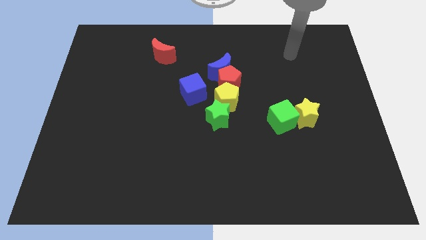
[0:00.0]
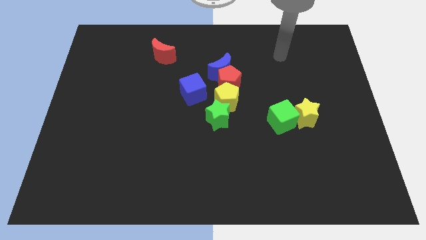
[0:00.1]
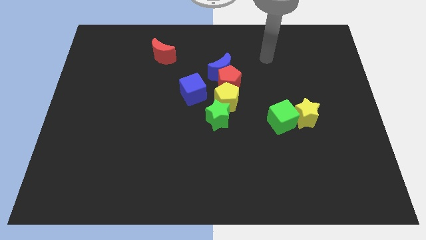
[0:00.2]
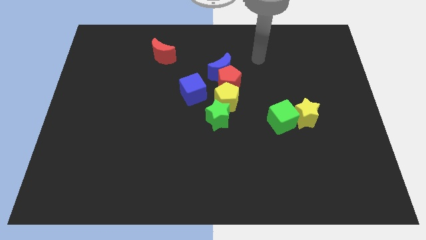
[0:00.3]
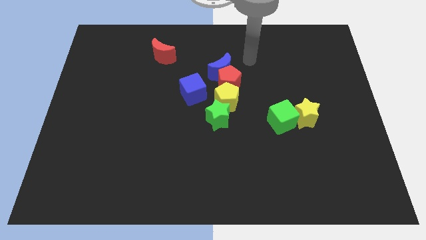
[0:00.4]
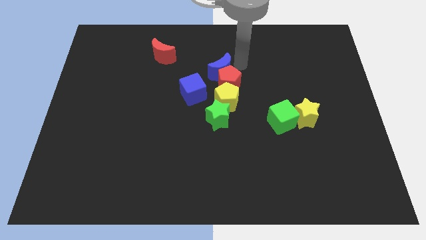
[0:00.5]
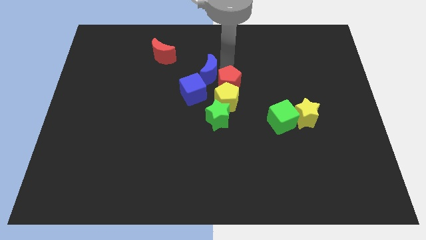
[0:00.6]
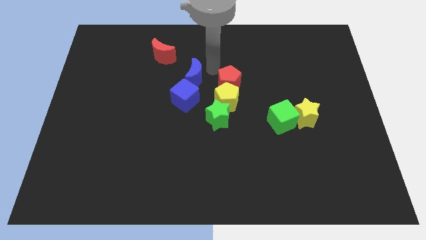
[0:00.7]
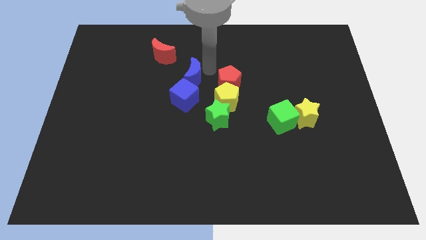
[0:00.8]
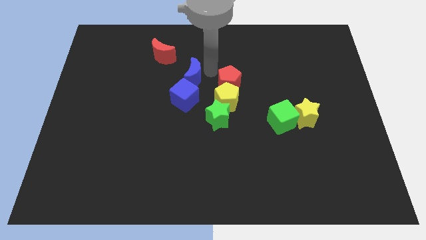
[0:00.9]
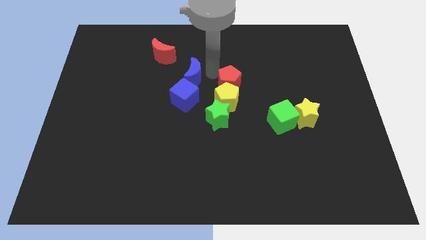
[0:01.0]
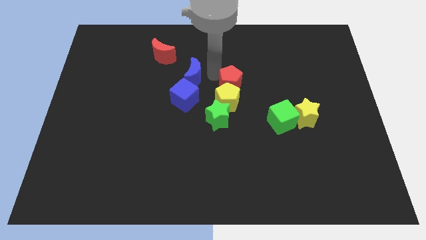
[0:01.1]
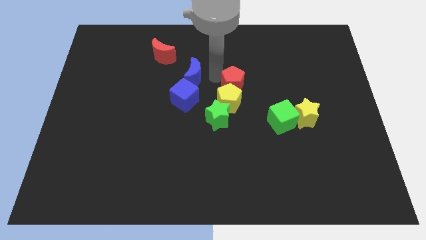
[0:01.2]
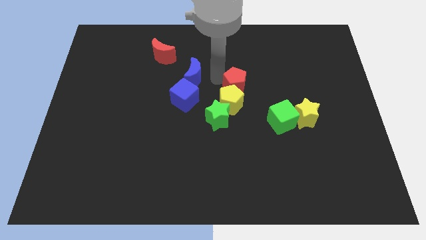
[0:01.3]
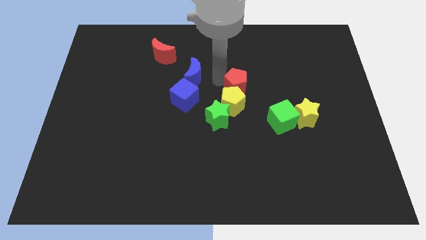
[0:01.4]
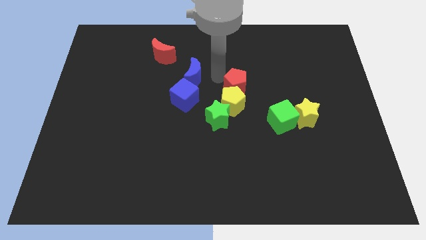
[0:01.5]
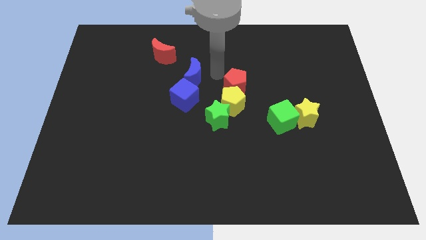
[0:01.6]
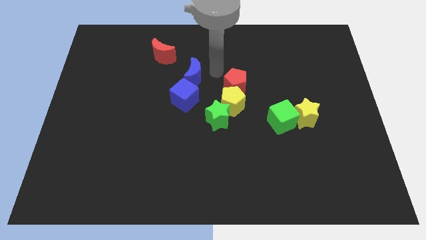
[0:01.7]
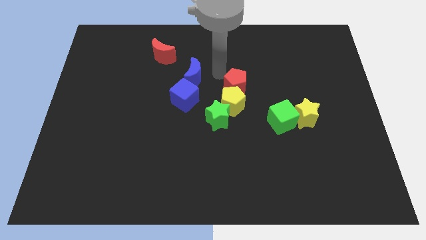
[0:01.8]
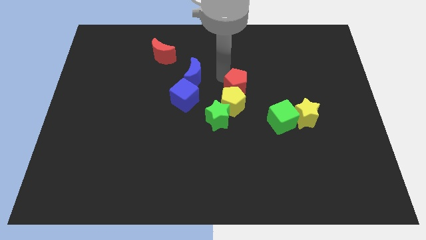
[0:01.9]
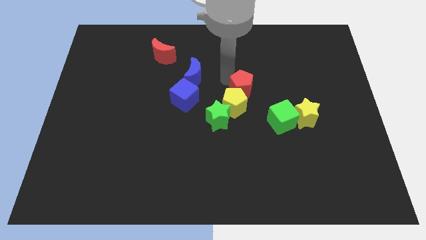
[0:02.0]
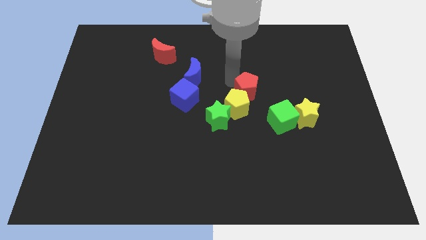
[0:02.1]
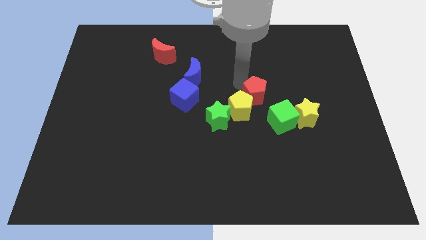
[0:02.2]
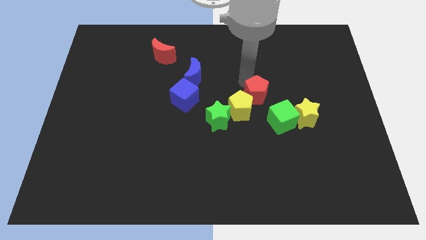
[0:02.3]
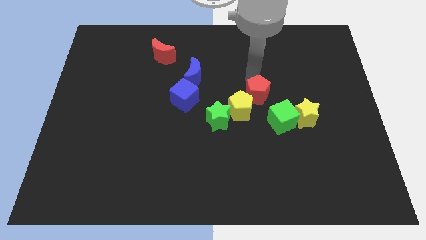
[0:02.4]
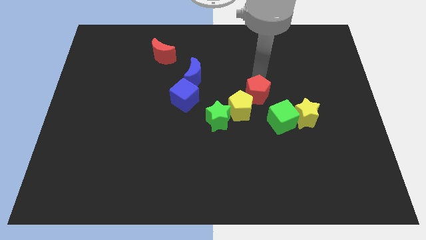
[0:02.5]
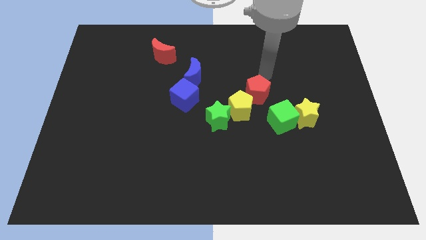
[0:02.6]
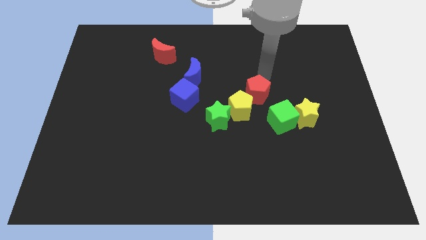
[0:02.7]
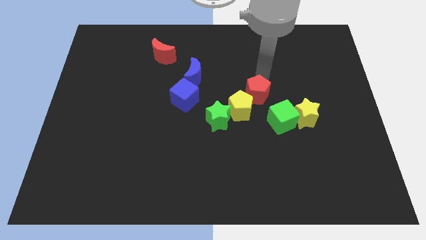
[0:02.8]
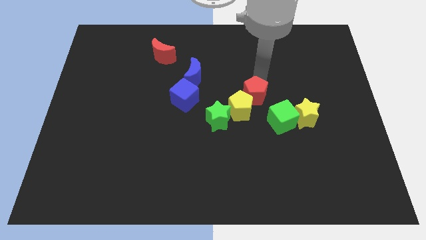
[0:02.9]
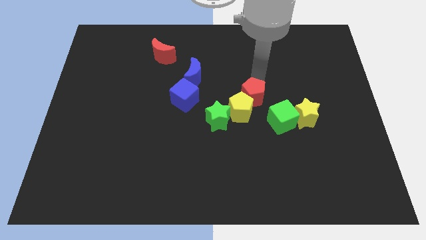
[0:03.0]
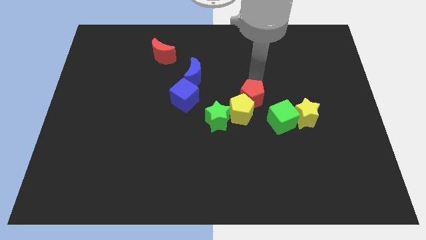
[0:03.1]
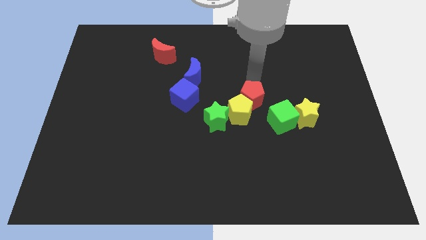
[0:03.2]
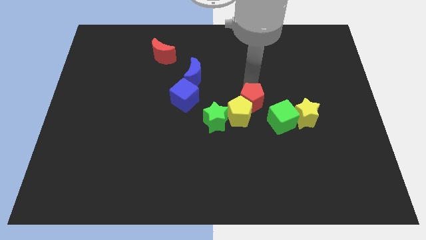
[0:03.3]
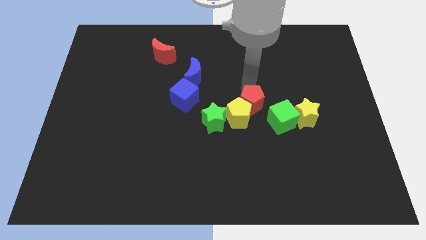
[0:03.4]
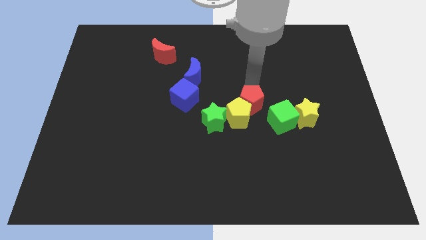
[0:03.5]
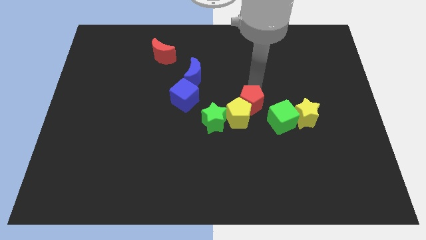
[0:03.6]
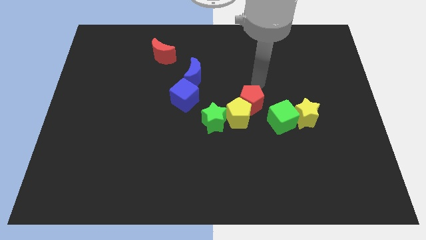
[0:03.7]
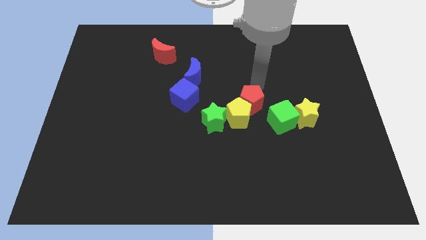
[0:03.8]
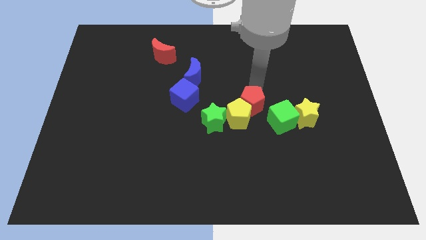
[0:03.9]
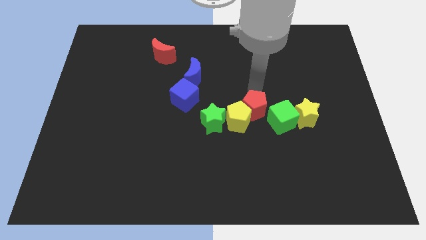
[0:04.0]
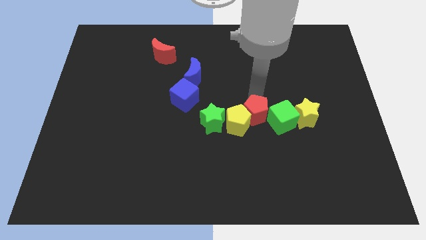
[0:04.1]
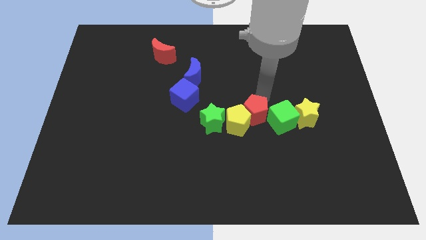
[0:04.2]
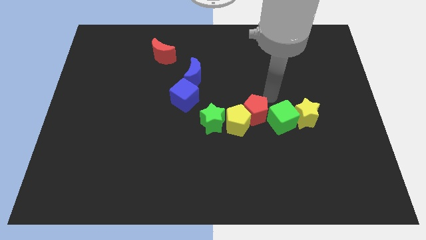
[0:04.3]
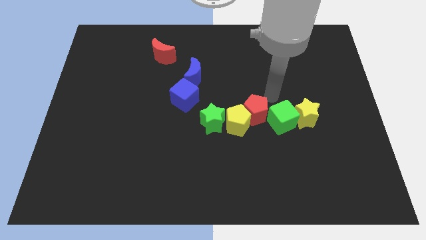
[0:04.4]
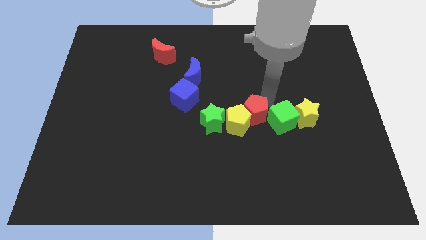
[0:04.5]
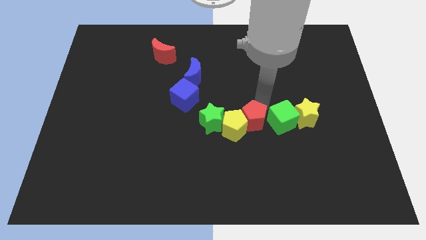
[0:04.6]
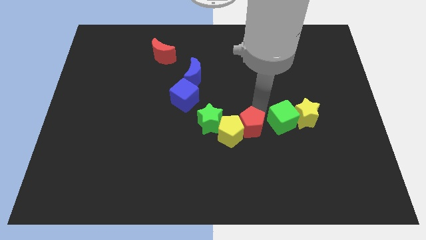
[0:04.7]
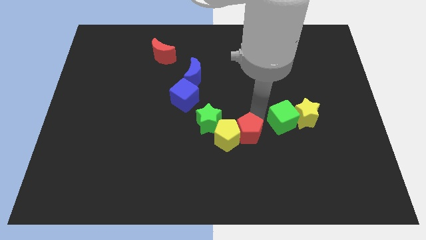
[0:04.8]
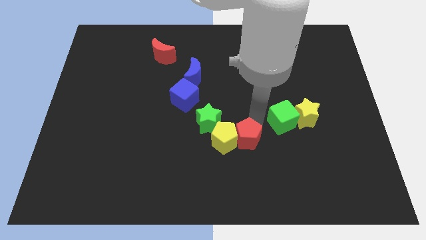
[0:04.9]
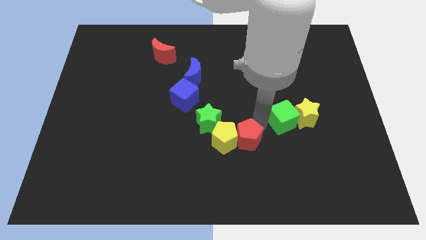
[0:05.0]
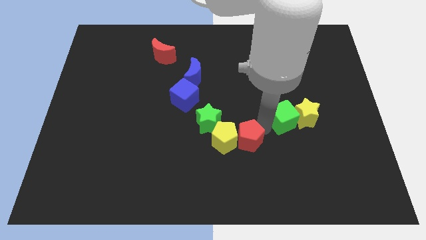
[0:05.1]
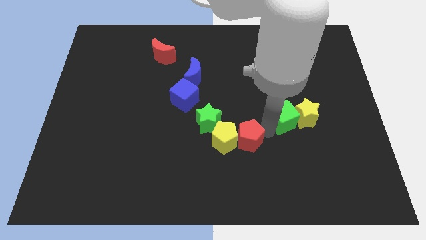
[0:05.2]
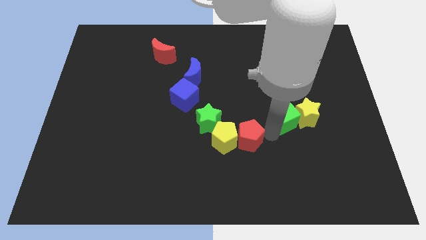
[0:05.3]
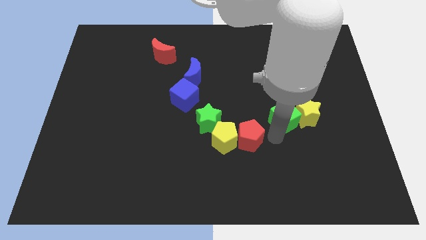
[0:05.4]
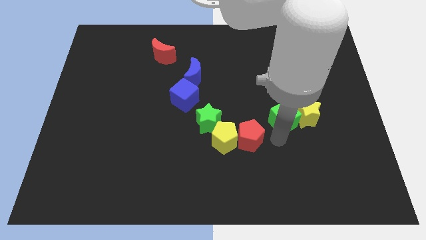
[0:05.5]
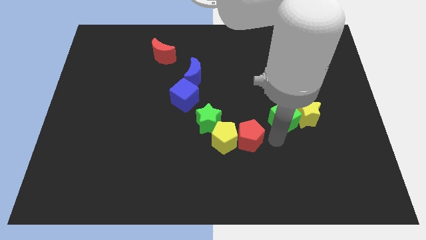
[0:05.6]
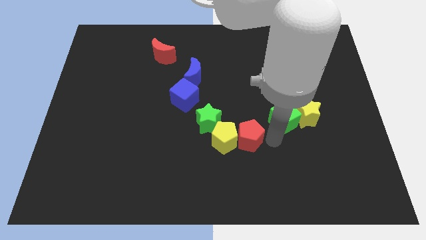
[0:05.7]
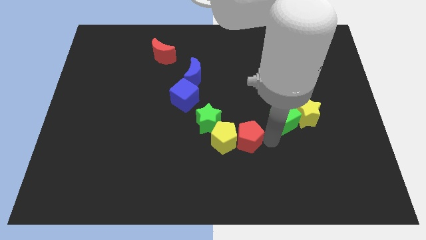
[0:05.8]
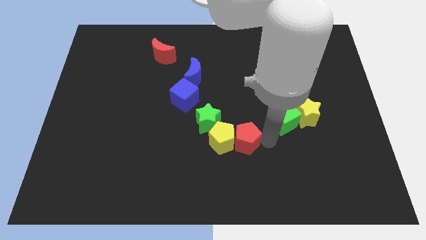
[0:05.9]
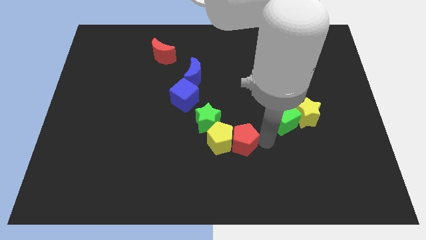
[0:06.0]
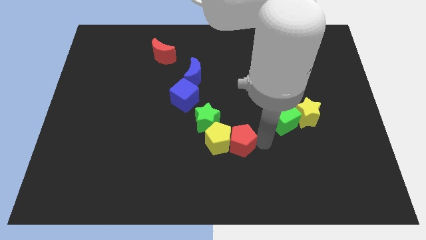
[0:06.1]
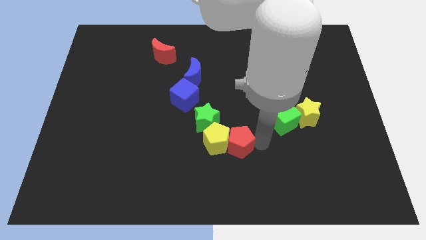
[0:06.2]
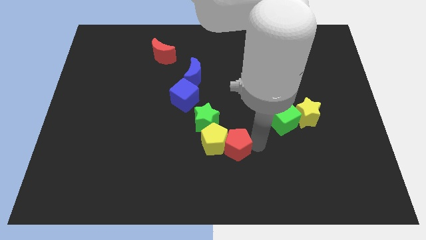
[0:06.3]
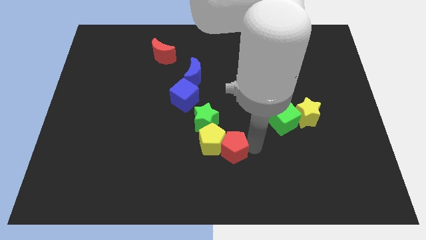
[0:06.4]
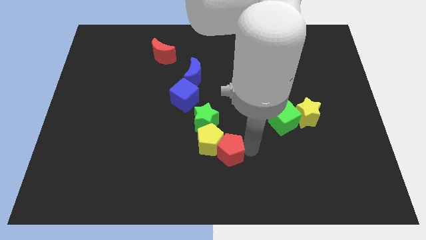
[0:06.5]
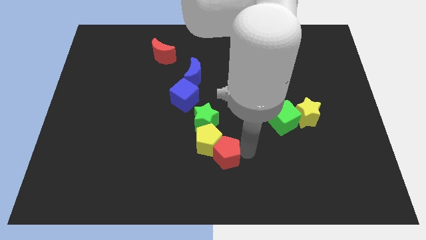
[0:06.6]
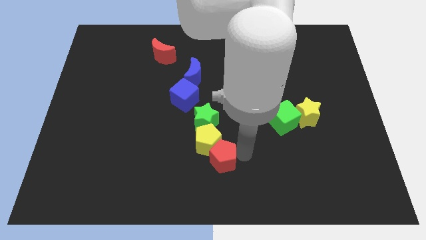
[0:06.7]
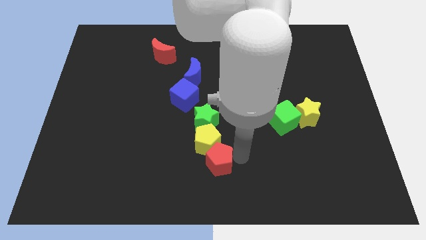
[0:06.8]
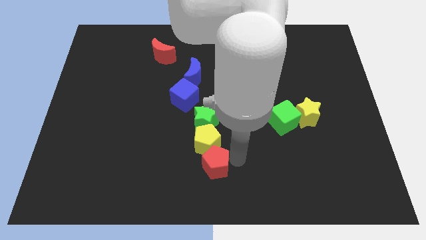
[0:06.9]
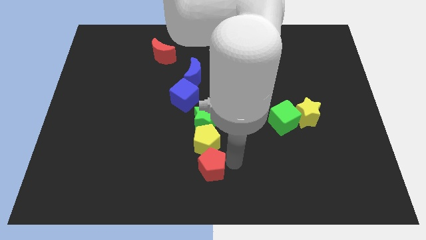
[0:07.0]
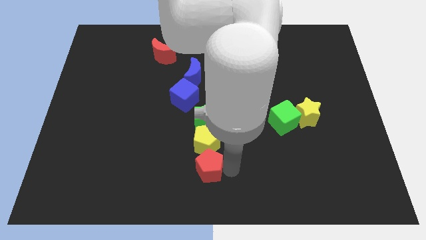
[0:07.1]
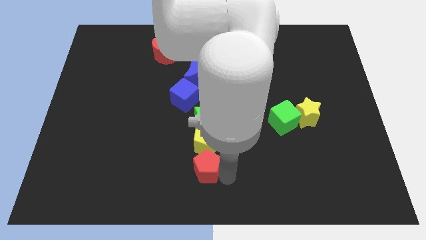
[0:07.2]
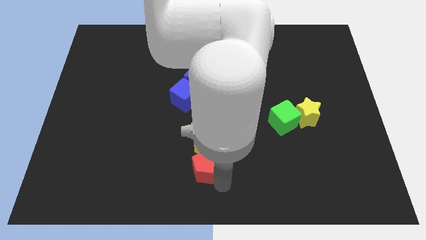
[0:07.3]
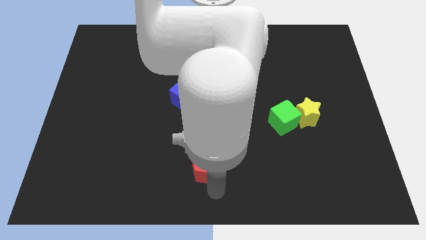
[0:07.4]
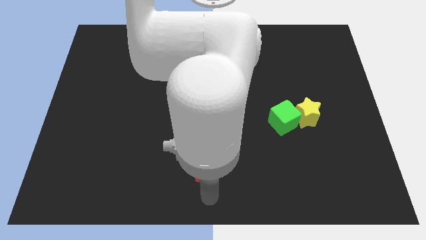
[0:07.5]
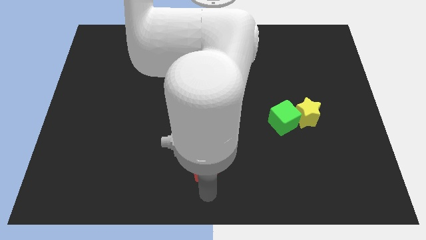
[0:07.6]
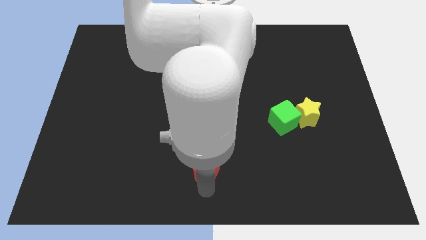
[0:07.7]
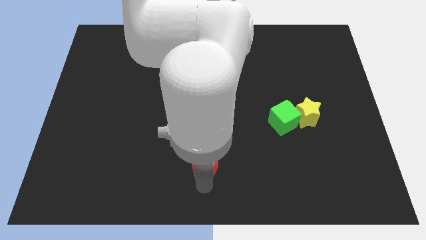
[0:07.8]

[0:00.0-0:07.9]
slide the red pentagon a bit diagonally downwards and left

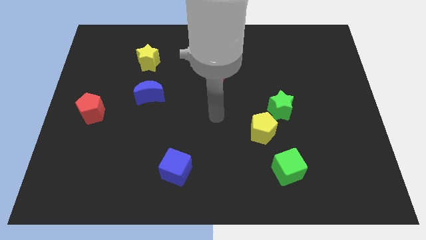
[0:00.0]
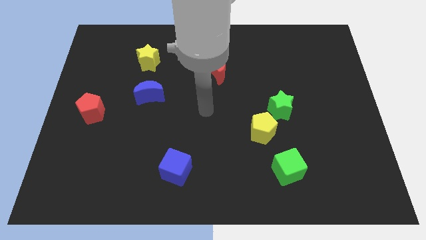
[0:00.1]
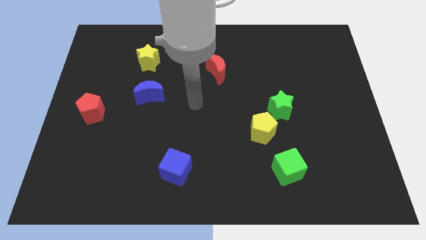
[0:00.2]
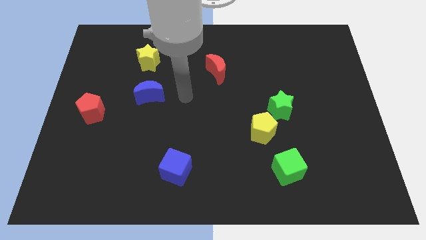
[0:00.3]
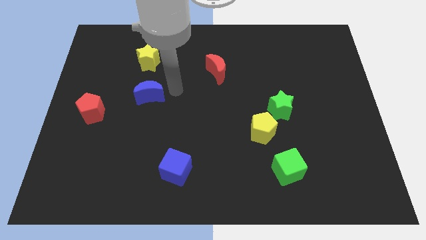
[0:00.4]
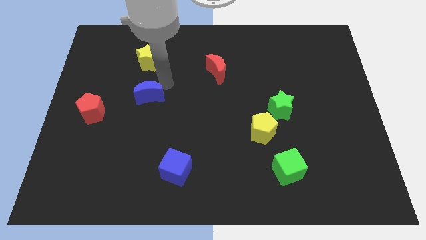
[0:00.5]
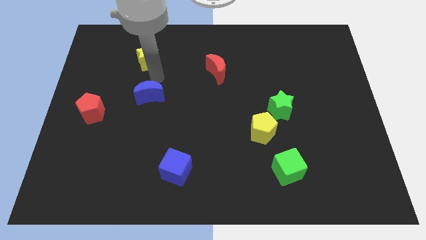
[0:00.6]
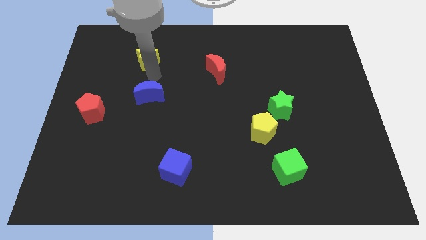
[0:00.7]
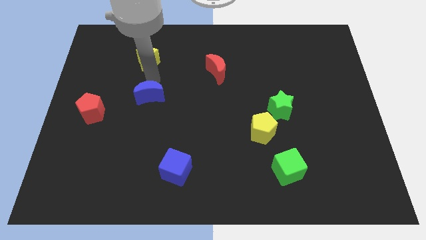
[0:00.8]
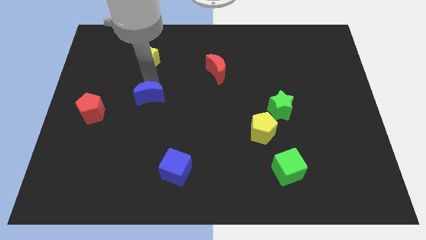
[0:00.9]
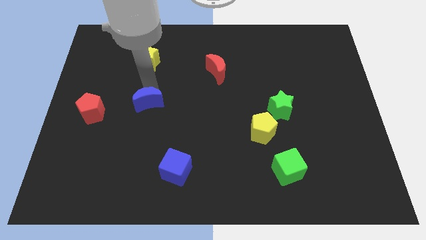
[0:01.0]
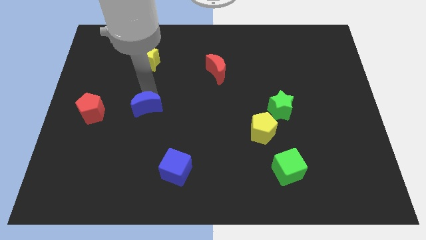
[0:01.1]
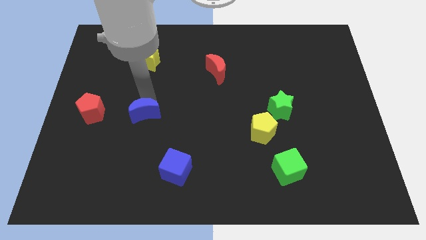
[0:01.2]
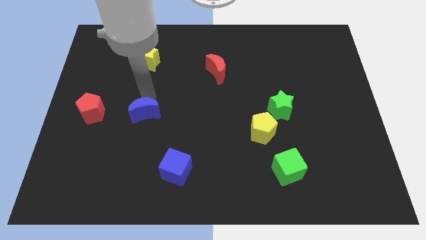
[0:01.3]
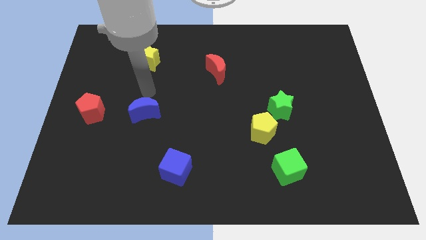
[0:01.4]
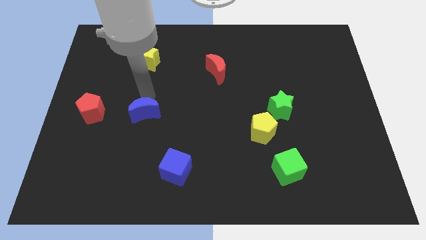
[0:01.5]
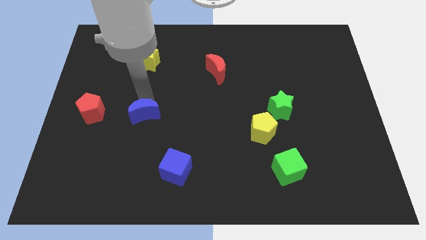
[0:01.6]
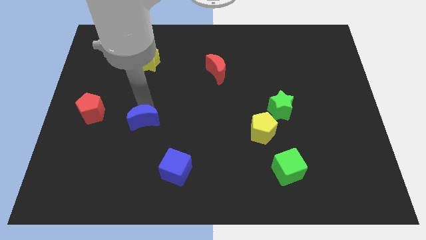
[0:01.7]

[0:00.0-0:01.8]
push the blue moon a little down
